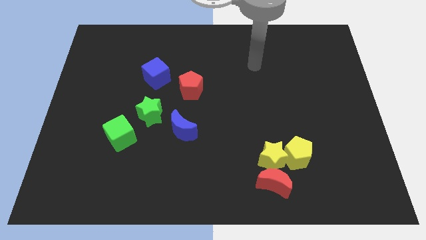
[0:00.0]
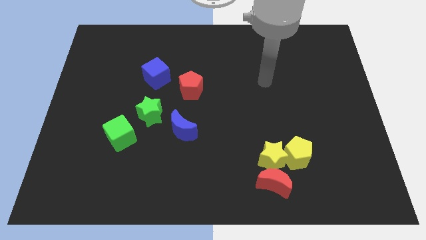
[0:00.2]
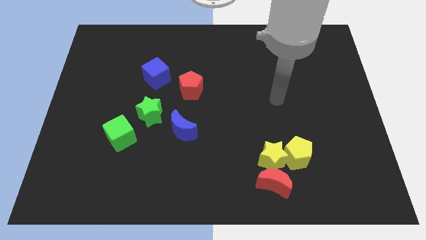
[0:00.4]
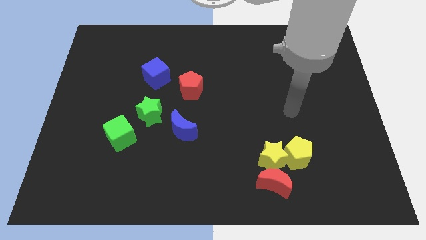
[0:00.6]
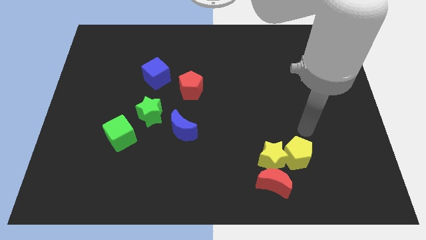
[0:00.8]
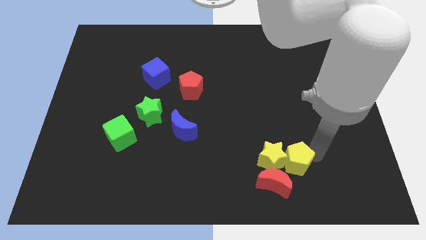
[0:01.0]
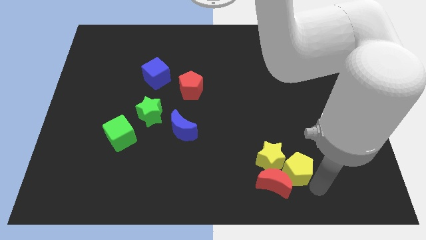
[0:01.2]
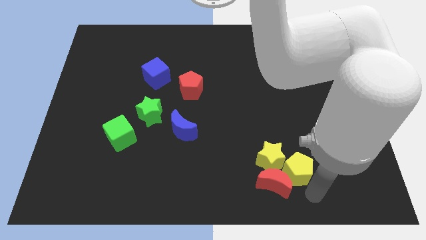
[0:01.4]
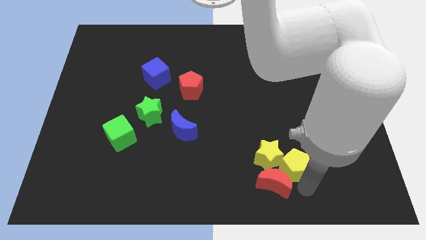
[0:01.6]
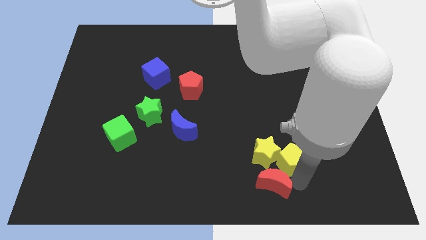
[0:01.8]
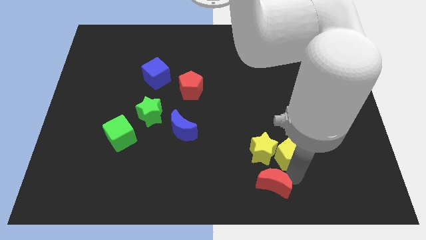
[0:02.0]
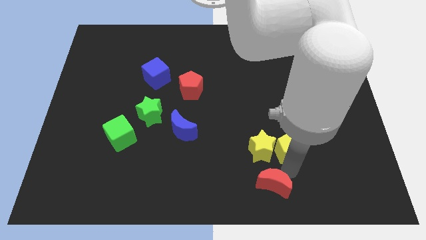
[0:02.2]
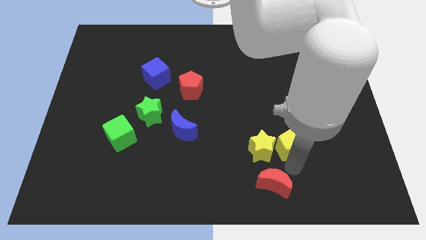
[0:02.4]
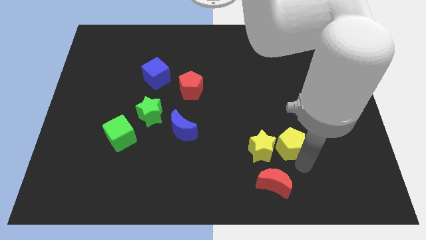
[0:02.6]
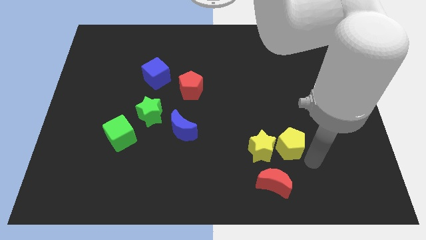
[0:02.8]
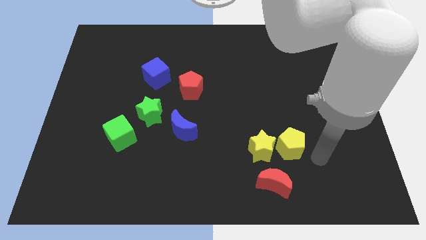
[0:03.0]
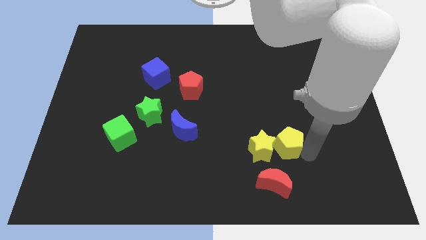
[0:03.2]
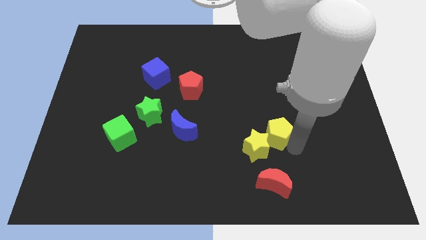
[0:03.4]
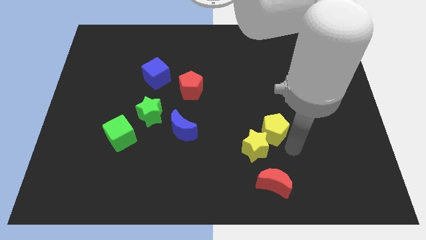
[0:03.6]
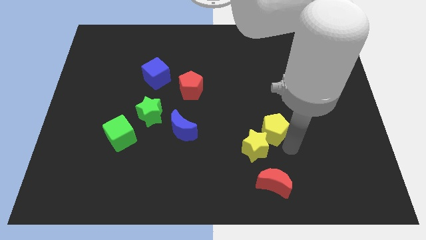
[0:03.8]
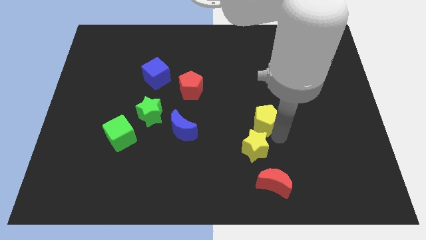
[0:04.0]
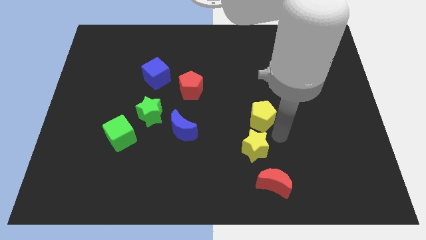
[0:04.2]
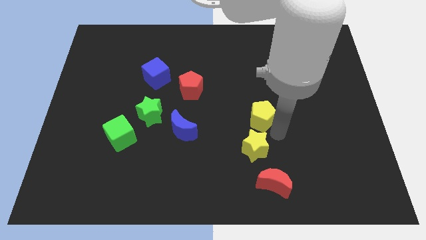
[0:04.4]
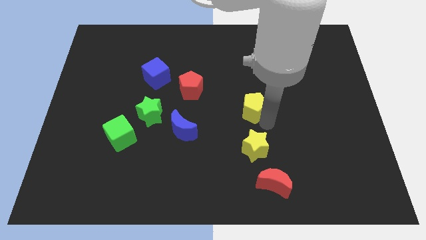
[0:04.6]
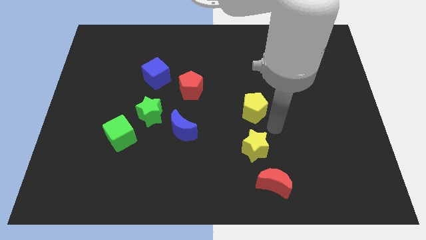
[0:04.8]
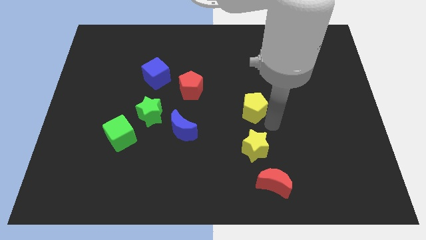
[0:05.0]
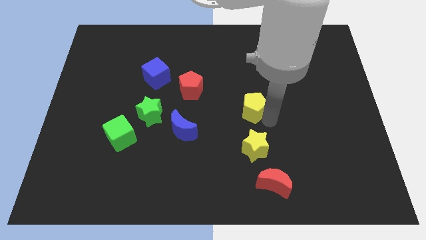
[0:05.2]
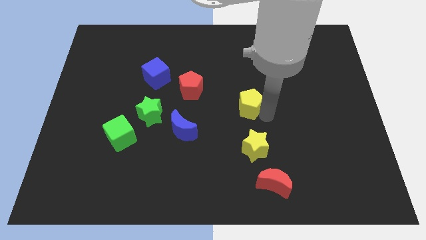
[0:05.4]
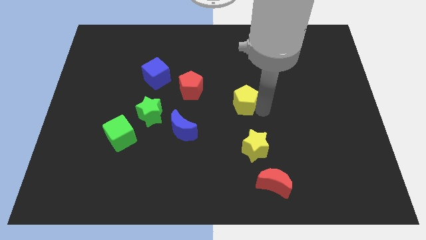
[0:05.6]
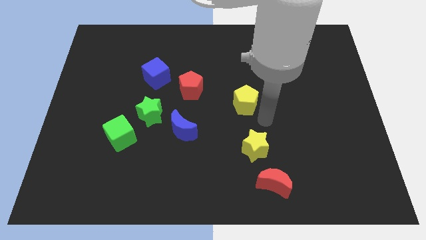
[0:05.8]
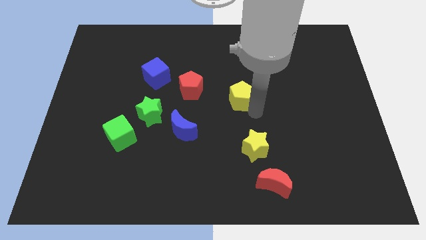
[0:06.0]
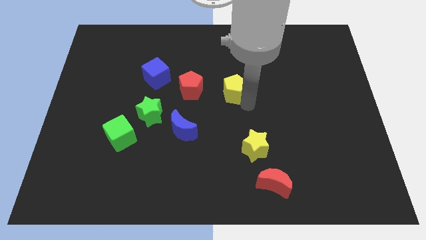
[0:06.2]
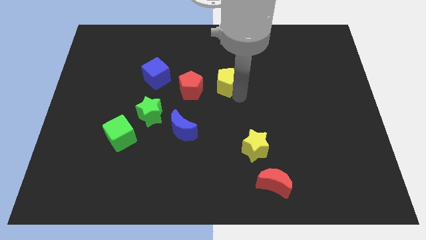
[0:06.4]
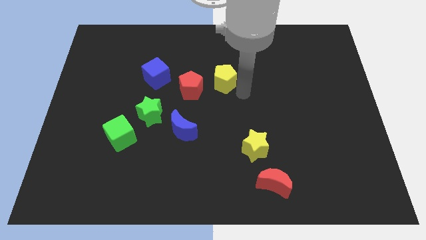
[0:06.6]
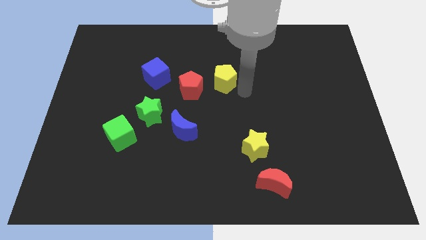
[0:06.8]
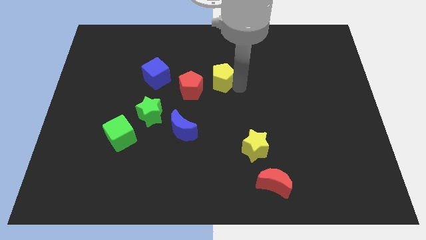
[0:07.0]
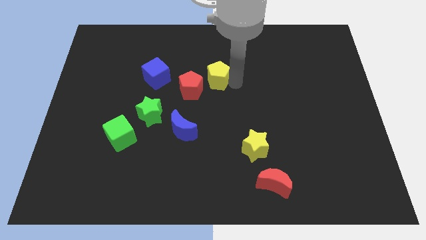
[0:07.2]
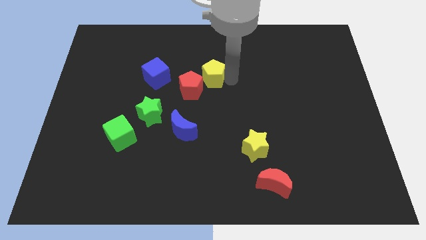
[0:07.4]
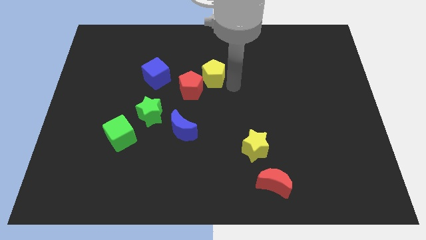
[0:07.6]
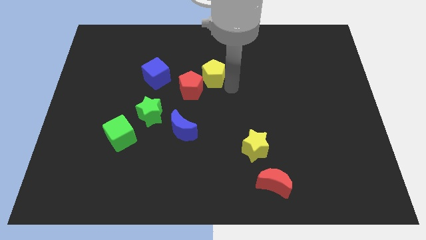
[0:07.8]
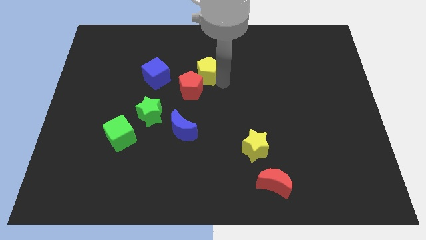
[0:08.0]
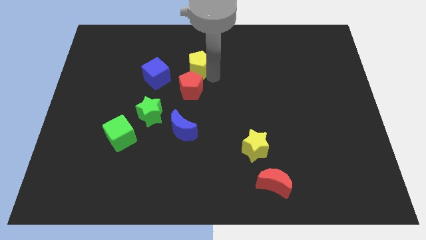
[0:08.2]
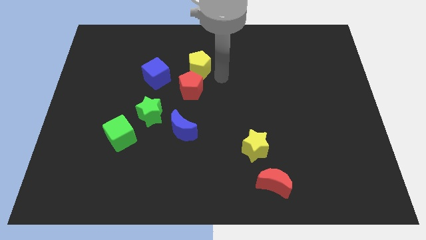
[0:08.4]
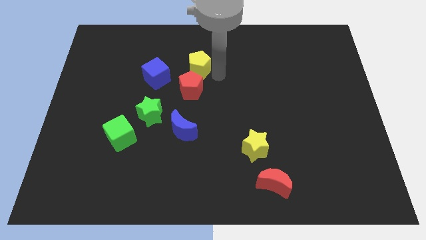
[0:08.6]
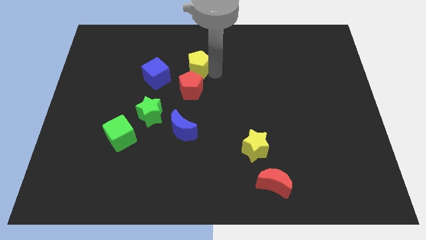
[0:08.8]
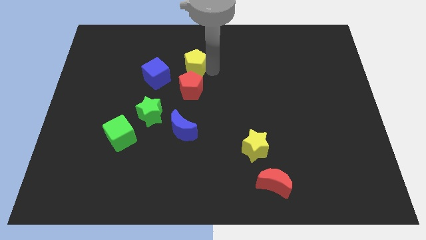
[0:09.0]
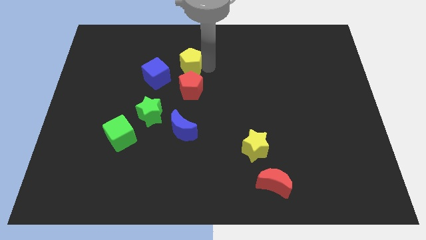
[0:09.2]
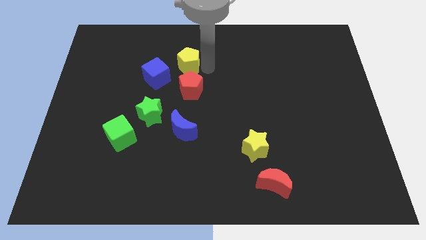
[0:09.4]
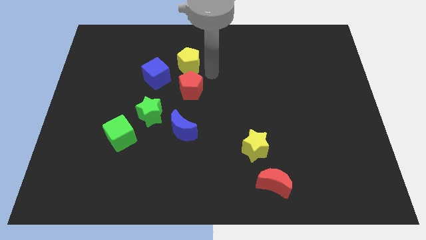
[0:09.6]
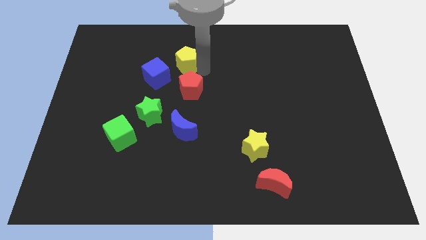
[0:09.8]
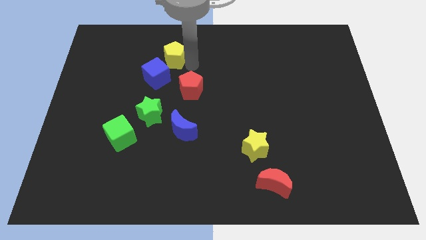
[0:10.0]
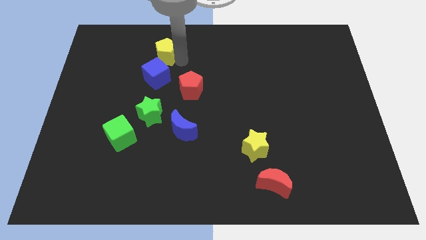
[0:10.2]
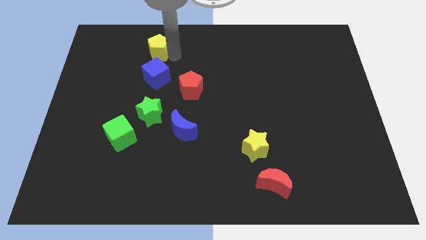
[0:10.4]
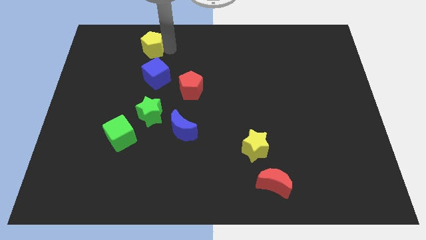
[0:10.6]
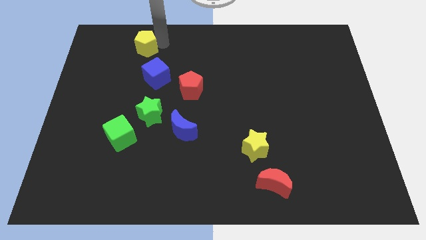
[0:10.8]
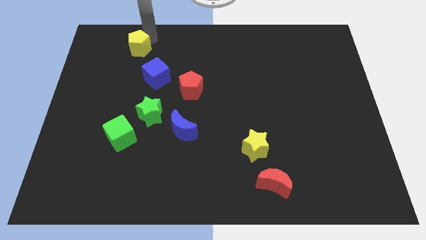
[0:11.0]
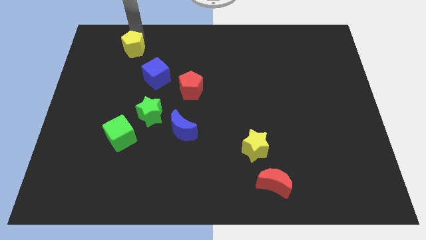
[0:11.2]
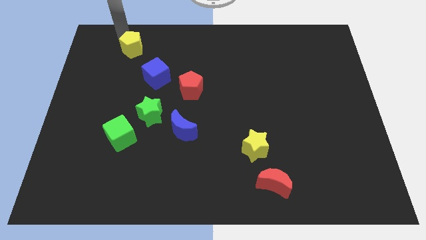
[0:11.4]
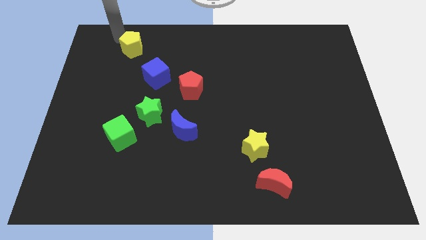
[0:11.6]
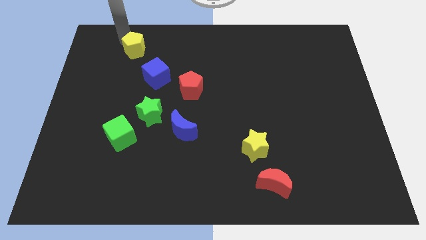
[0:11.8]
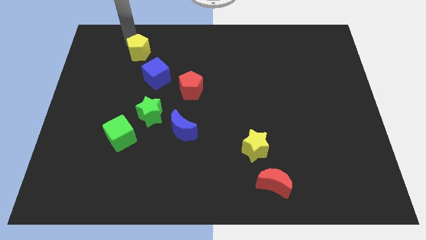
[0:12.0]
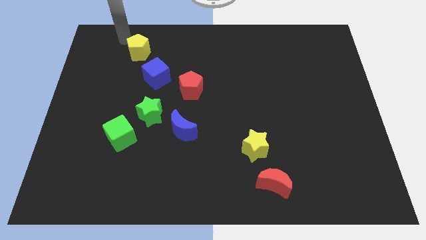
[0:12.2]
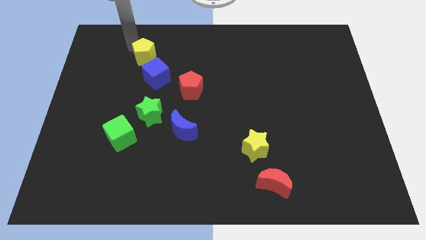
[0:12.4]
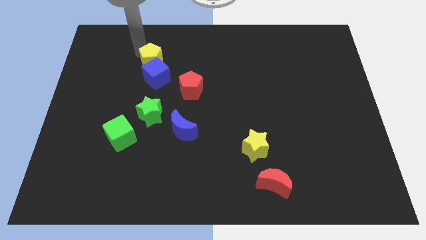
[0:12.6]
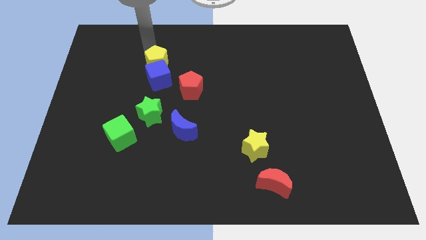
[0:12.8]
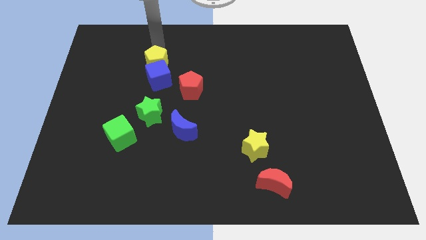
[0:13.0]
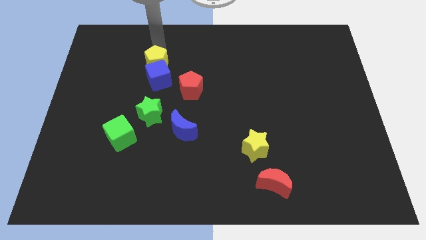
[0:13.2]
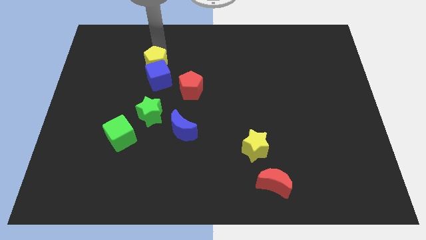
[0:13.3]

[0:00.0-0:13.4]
put the yellow pentagon to the top side of the green star
